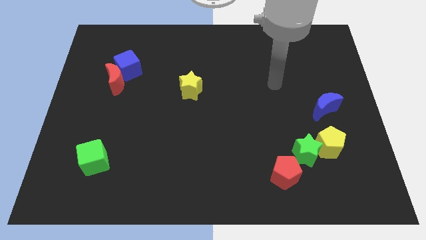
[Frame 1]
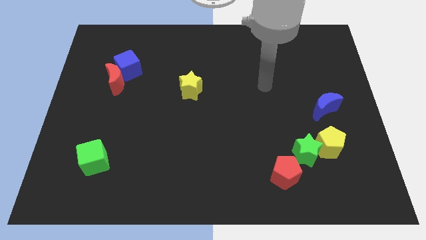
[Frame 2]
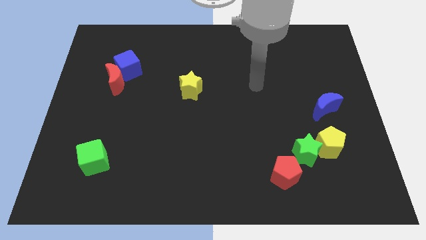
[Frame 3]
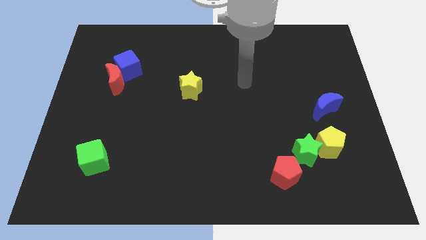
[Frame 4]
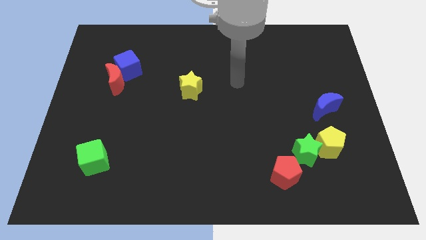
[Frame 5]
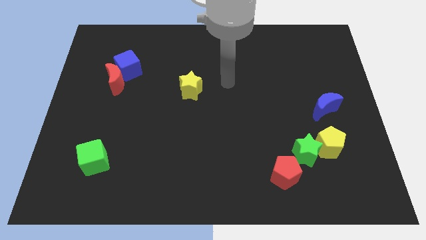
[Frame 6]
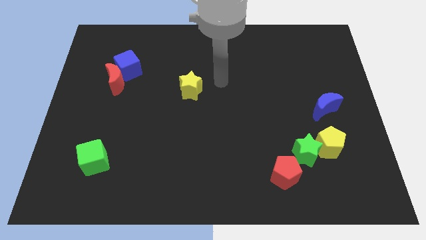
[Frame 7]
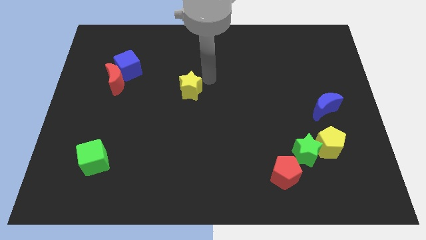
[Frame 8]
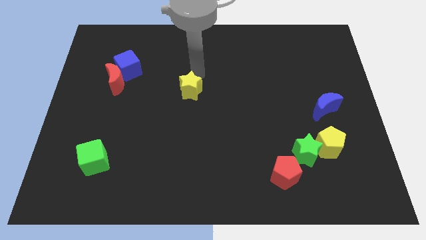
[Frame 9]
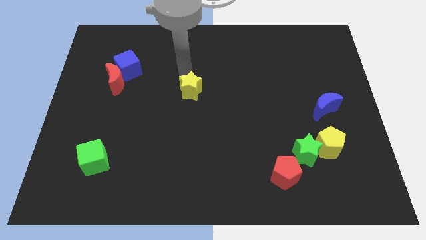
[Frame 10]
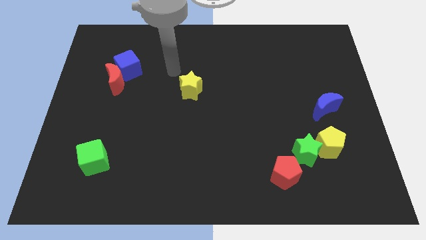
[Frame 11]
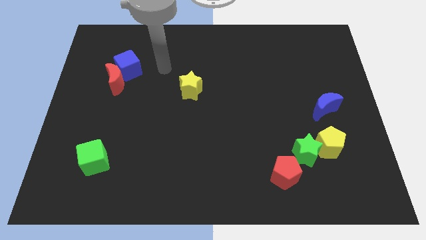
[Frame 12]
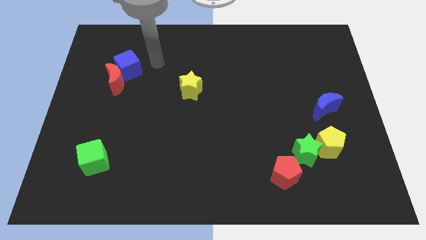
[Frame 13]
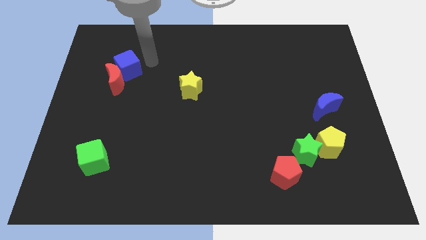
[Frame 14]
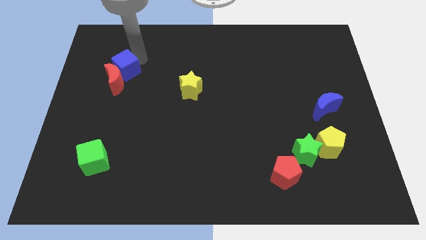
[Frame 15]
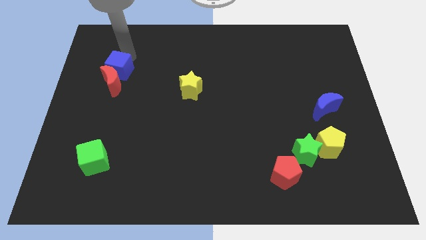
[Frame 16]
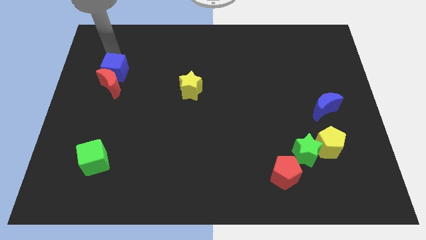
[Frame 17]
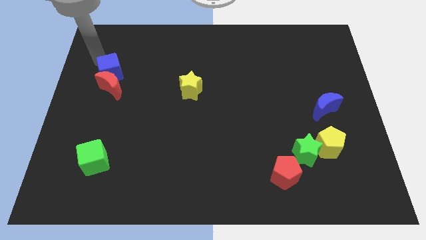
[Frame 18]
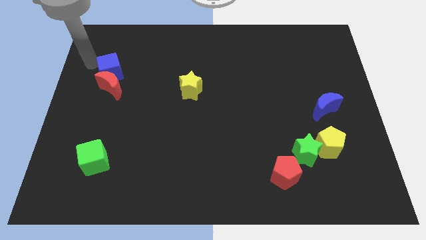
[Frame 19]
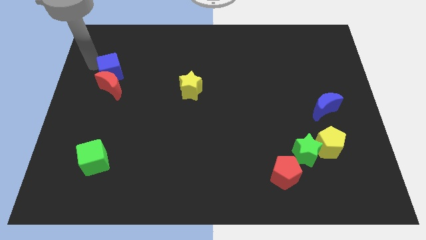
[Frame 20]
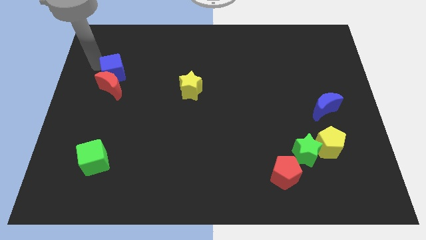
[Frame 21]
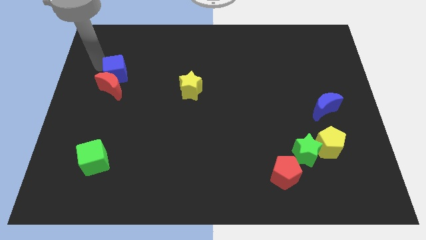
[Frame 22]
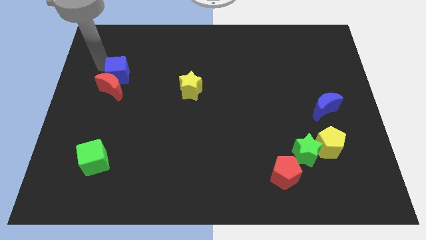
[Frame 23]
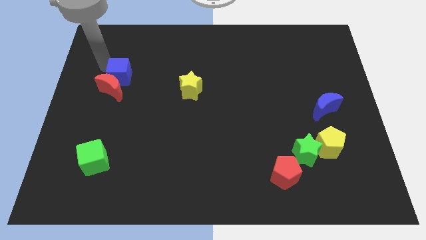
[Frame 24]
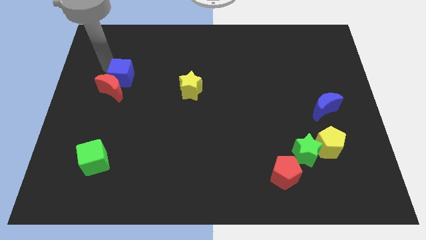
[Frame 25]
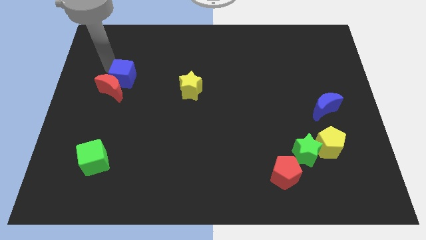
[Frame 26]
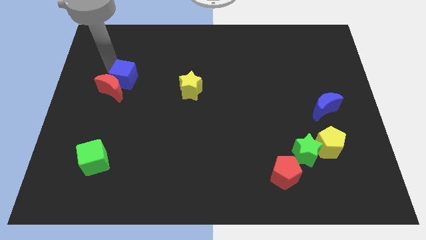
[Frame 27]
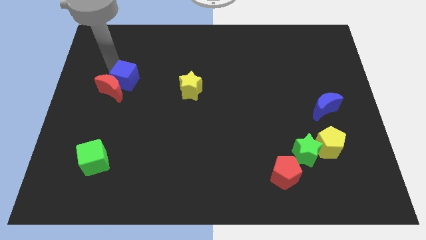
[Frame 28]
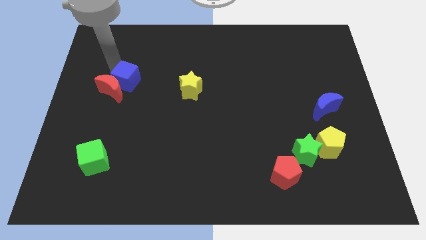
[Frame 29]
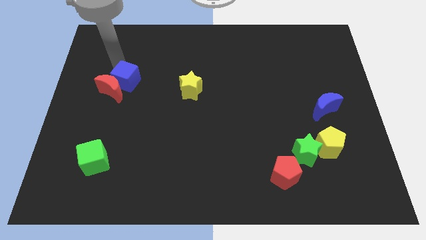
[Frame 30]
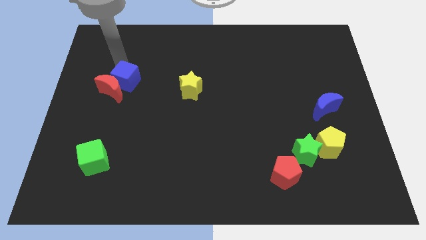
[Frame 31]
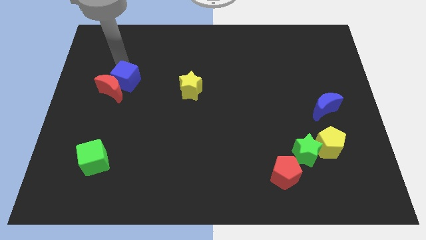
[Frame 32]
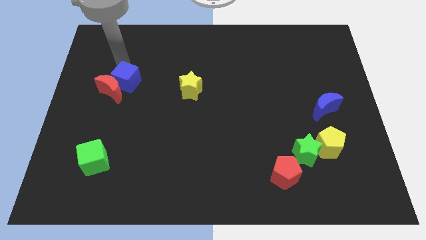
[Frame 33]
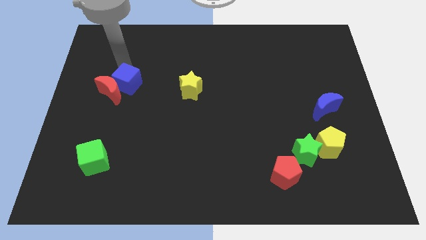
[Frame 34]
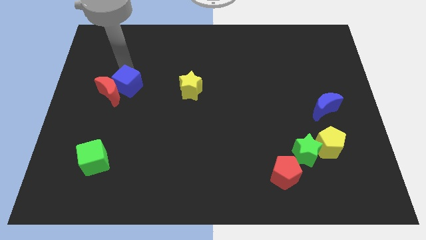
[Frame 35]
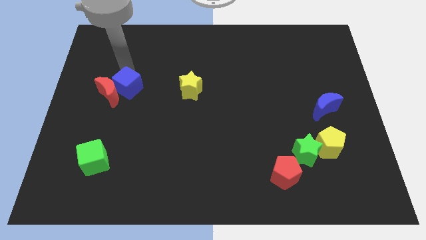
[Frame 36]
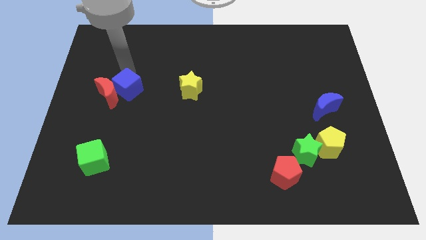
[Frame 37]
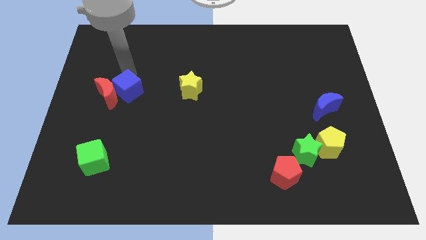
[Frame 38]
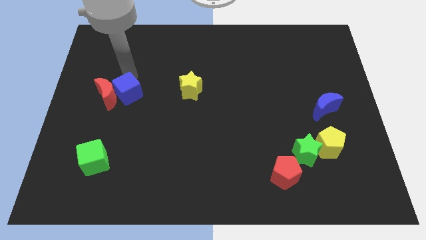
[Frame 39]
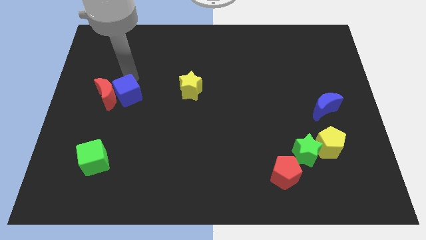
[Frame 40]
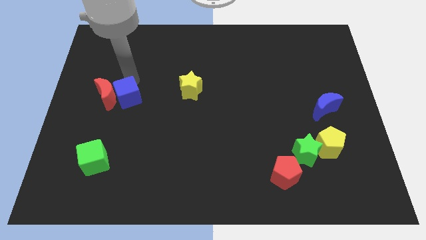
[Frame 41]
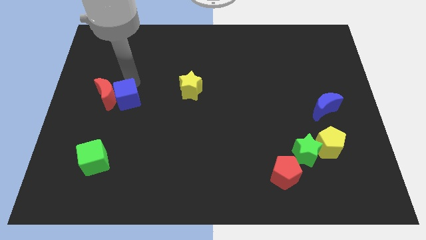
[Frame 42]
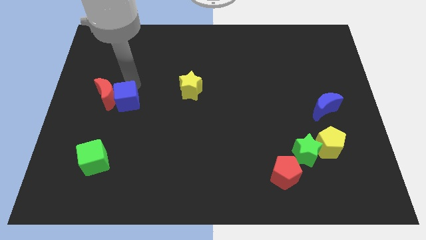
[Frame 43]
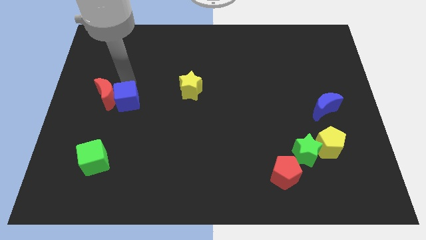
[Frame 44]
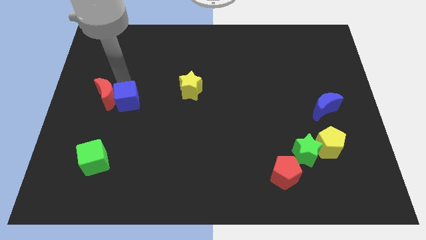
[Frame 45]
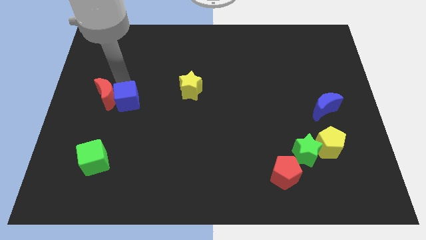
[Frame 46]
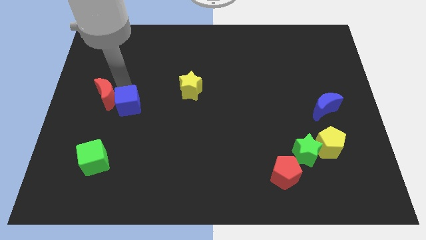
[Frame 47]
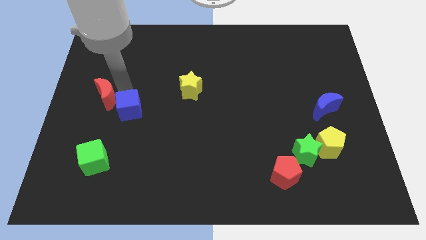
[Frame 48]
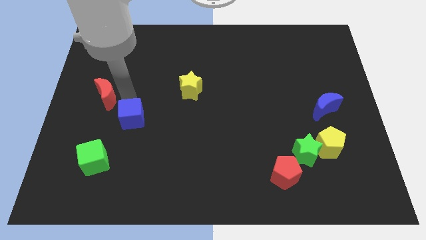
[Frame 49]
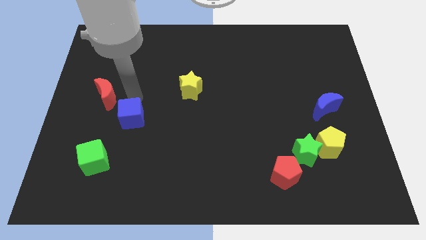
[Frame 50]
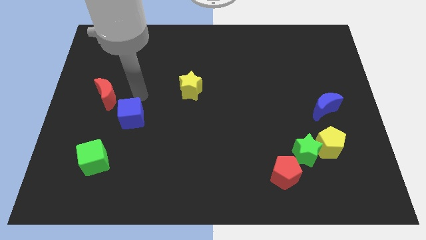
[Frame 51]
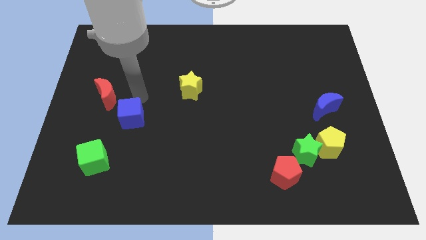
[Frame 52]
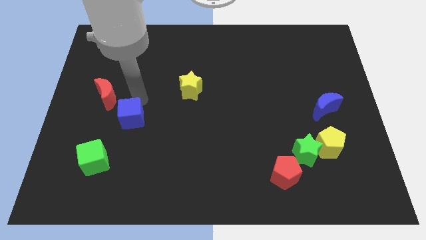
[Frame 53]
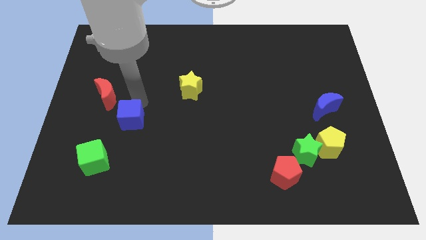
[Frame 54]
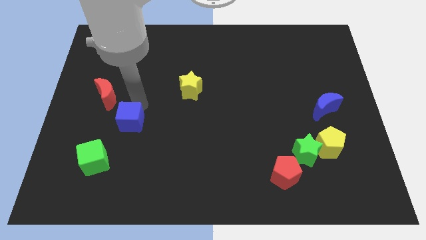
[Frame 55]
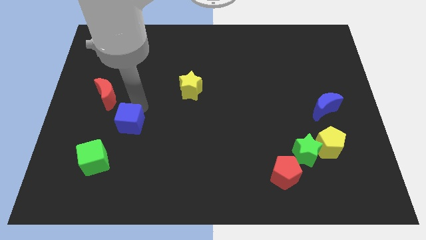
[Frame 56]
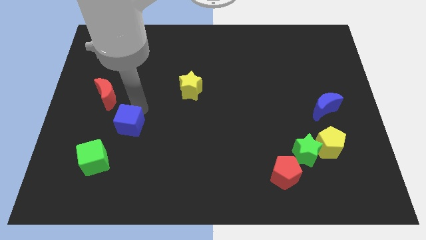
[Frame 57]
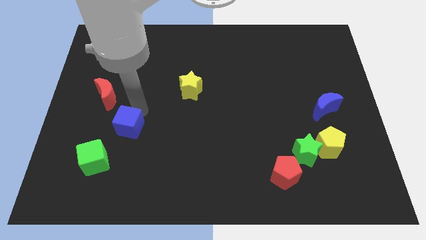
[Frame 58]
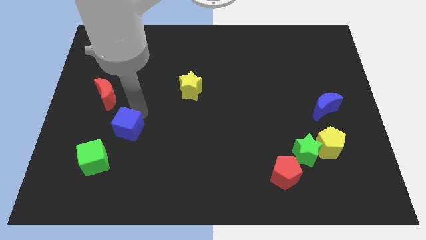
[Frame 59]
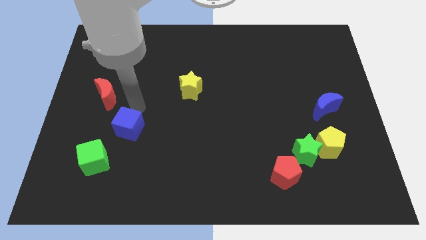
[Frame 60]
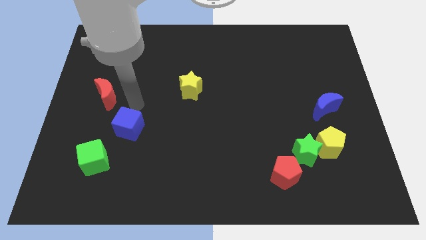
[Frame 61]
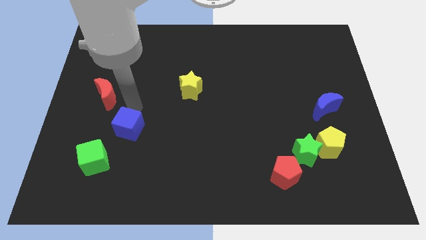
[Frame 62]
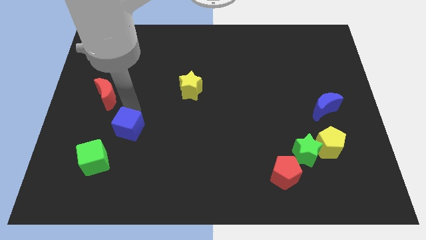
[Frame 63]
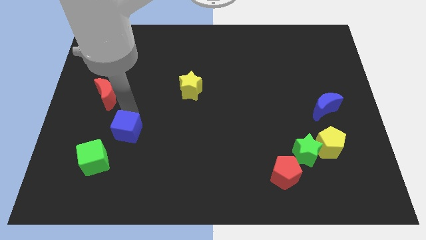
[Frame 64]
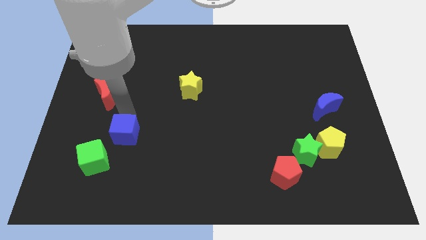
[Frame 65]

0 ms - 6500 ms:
push the blue cube downwards

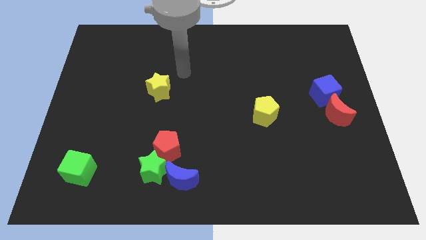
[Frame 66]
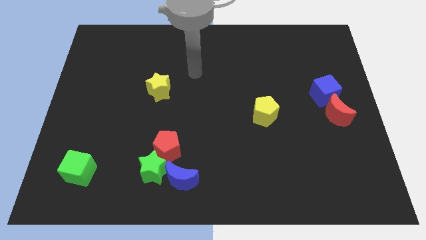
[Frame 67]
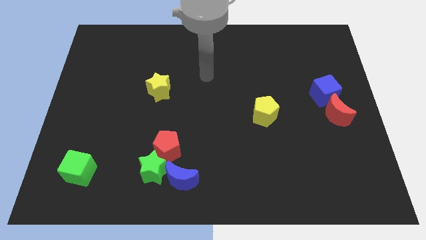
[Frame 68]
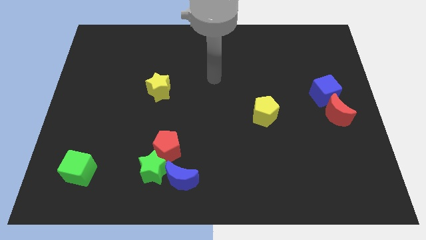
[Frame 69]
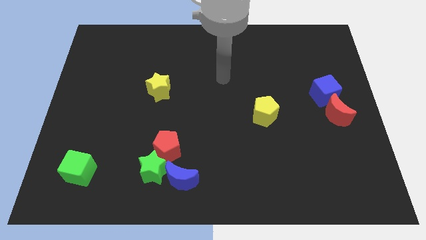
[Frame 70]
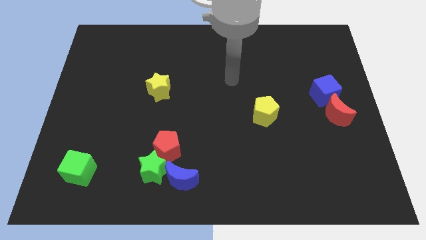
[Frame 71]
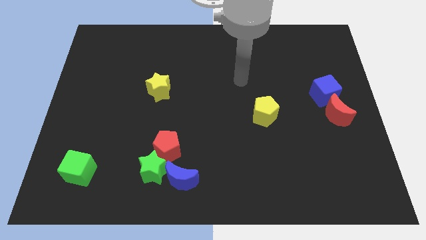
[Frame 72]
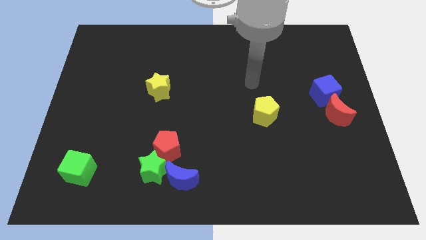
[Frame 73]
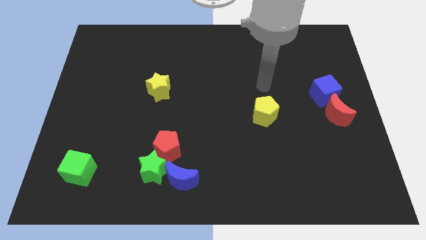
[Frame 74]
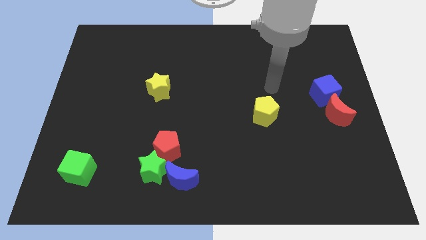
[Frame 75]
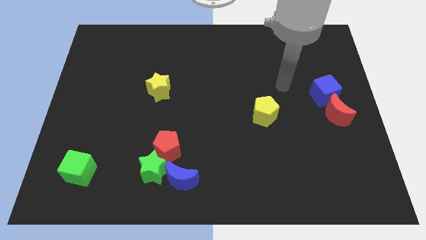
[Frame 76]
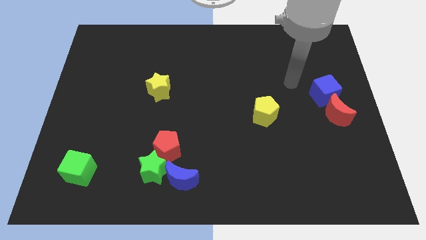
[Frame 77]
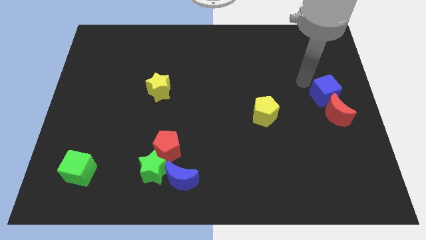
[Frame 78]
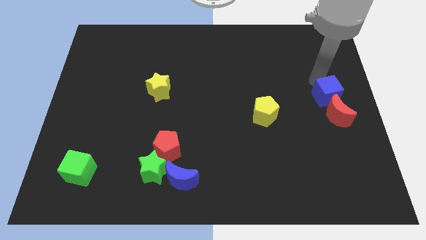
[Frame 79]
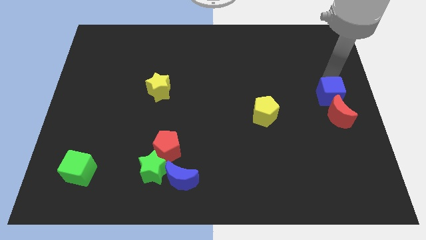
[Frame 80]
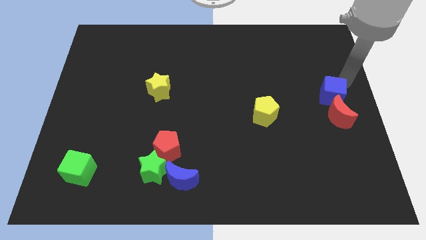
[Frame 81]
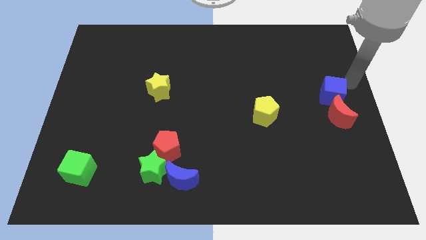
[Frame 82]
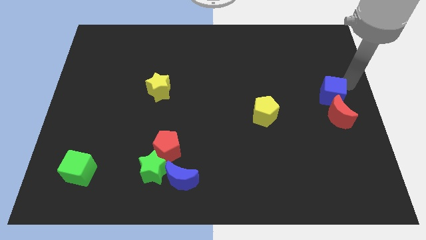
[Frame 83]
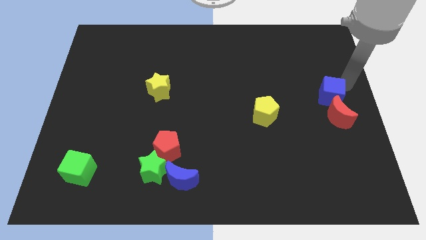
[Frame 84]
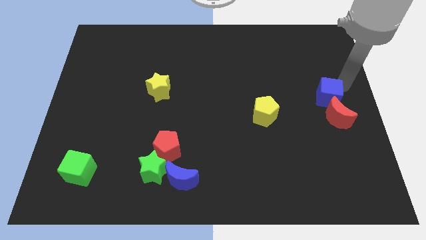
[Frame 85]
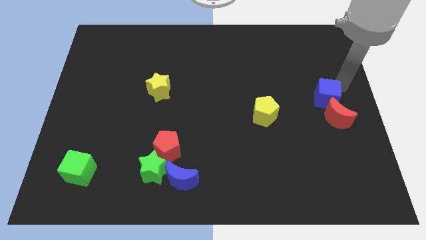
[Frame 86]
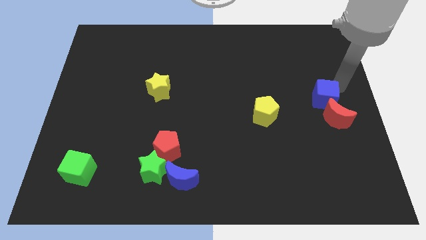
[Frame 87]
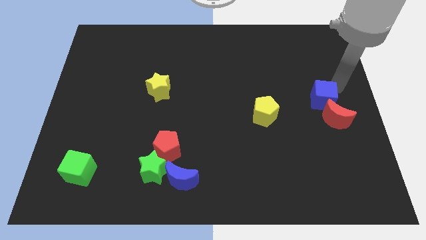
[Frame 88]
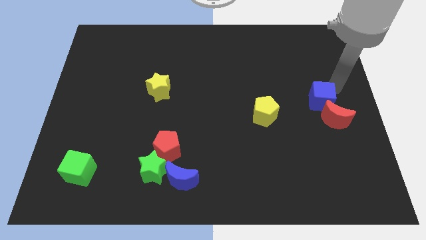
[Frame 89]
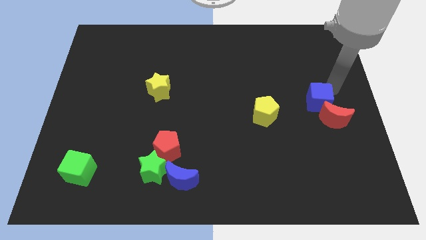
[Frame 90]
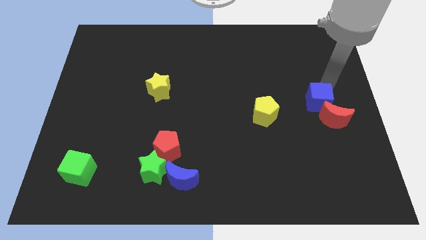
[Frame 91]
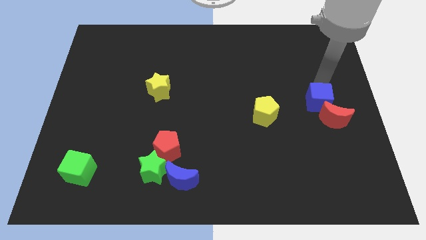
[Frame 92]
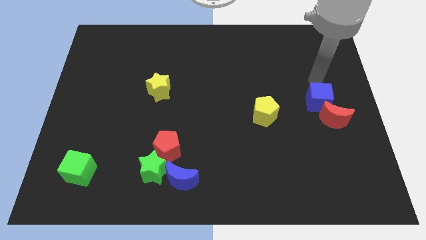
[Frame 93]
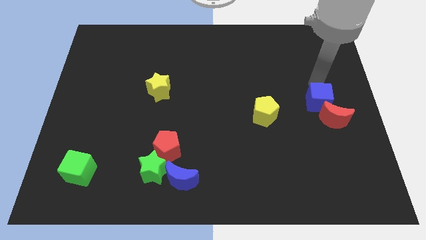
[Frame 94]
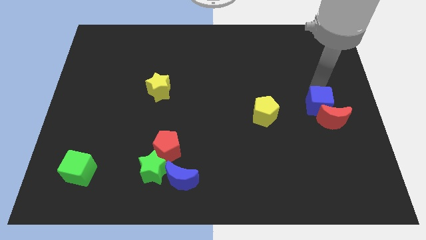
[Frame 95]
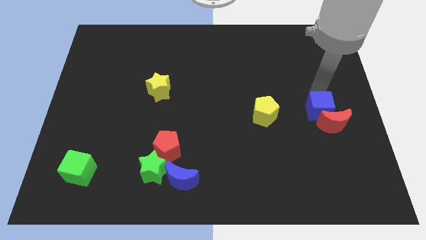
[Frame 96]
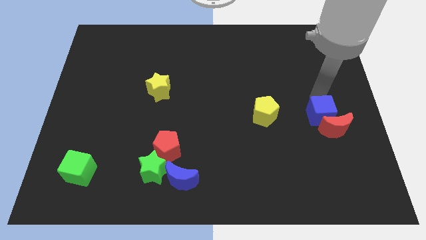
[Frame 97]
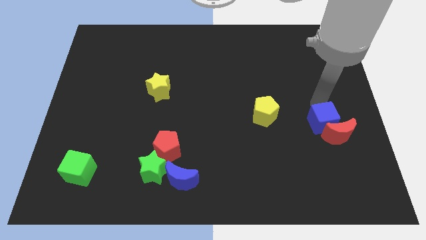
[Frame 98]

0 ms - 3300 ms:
push the blue cube slightly downwards
